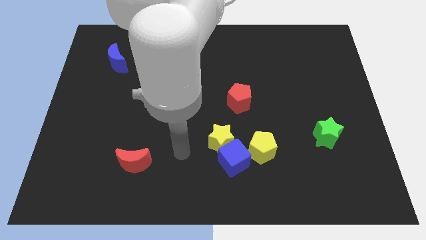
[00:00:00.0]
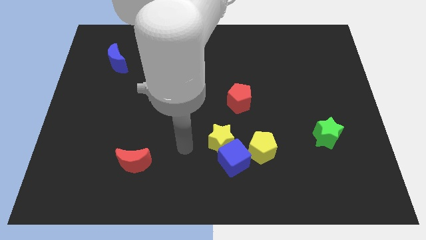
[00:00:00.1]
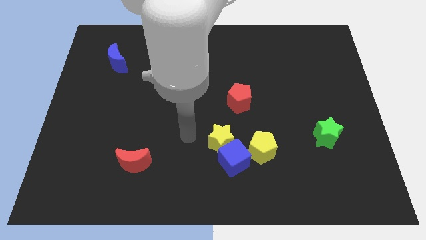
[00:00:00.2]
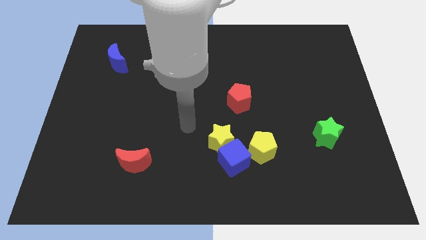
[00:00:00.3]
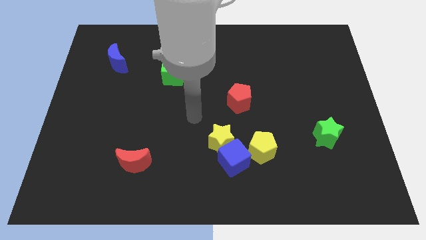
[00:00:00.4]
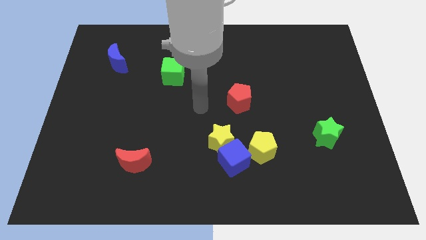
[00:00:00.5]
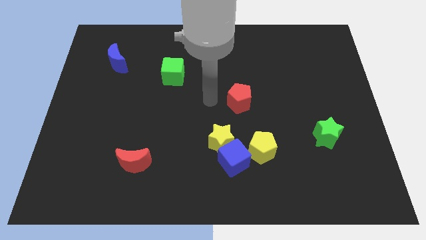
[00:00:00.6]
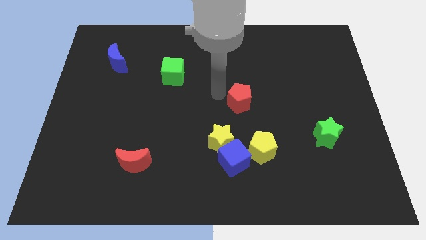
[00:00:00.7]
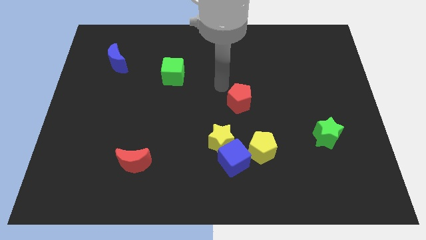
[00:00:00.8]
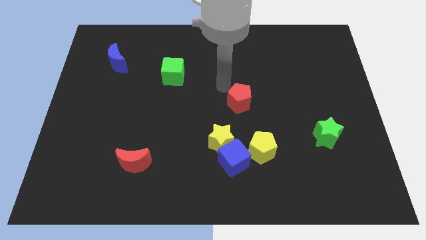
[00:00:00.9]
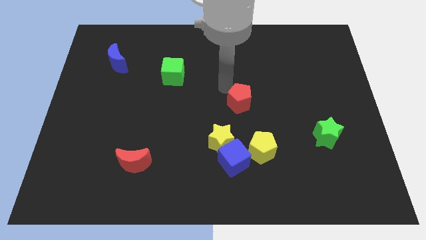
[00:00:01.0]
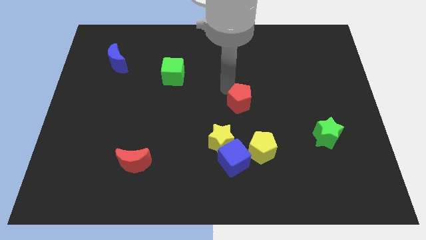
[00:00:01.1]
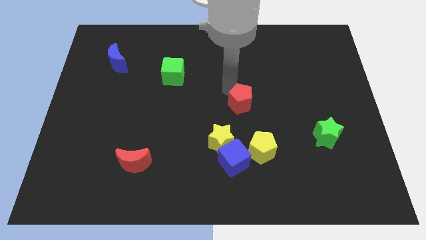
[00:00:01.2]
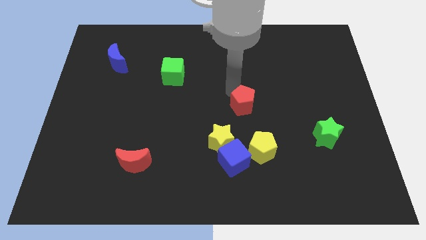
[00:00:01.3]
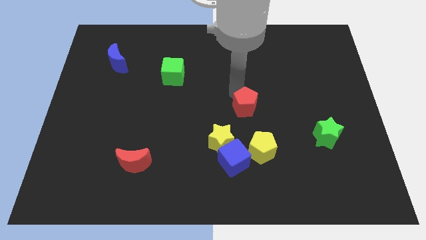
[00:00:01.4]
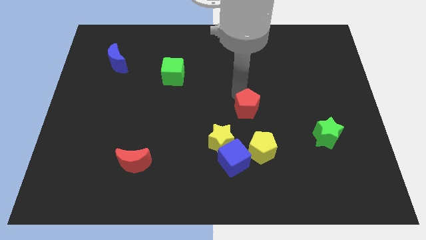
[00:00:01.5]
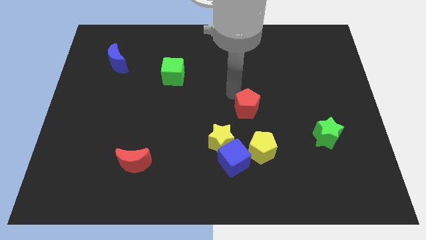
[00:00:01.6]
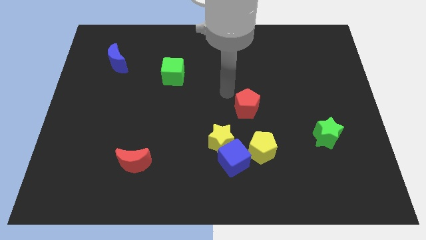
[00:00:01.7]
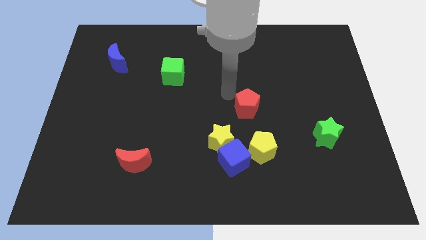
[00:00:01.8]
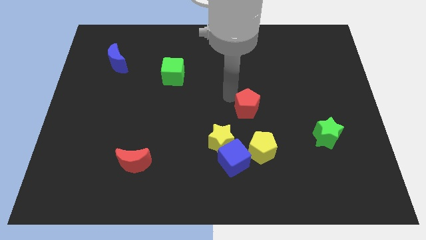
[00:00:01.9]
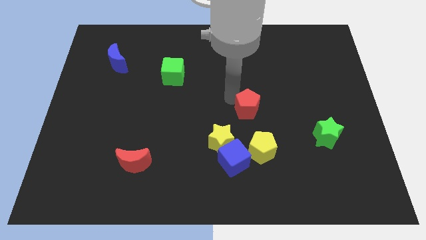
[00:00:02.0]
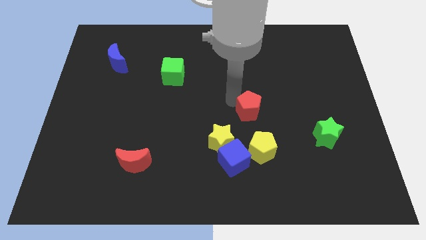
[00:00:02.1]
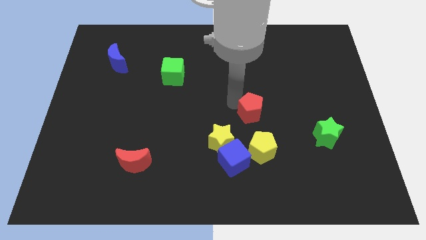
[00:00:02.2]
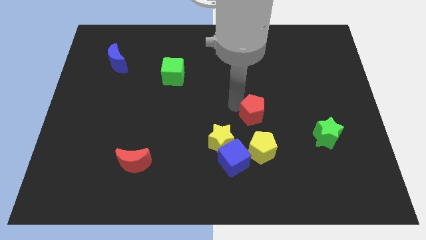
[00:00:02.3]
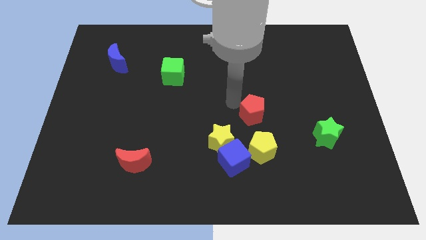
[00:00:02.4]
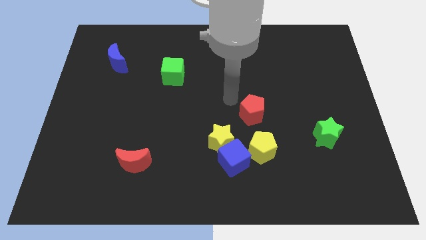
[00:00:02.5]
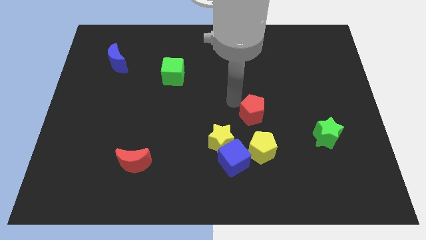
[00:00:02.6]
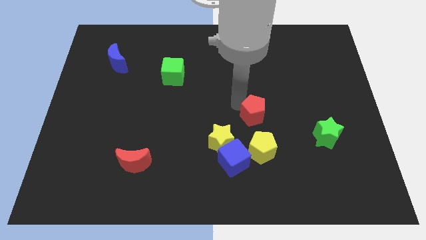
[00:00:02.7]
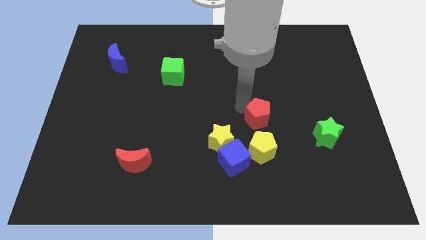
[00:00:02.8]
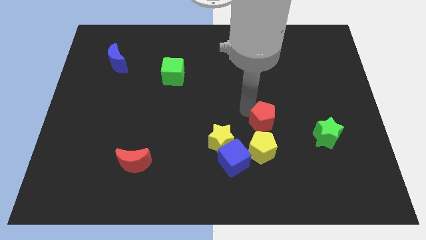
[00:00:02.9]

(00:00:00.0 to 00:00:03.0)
push the red pentagon a bit downwards and right diagonally

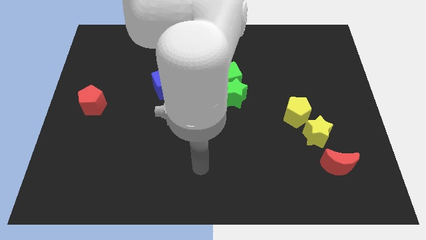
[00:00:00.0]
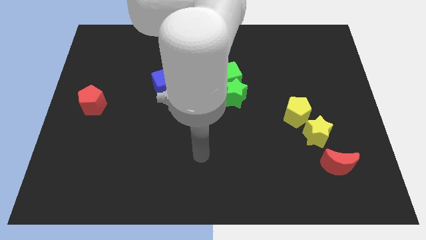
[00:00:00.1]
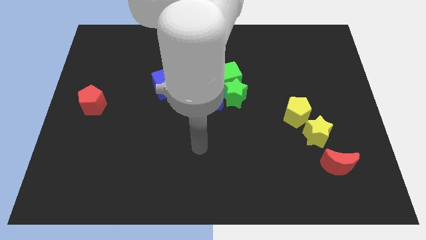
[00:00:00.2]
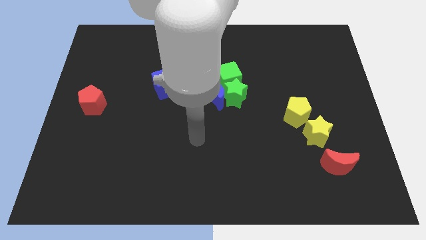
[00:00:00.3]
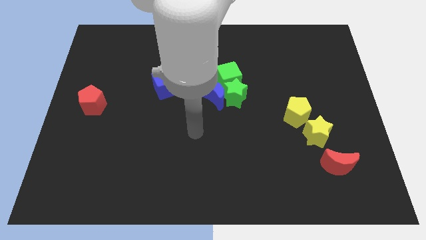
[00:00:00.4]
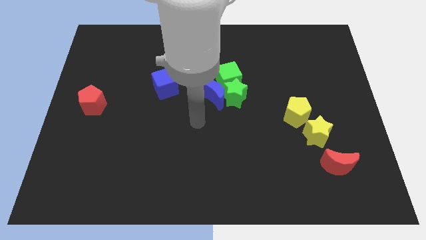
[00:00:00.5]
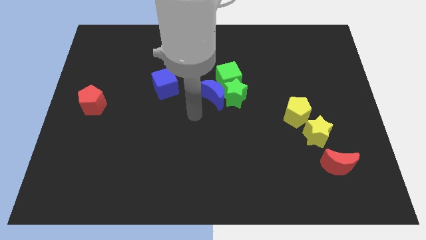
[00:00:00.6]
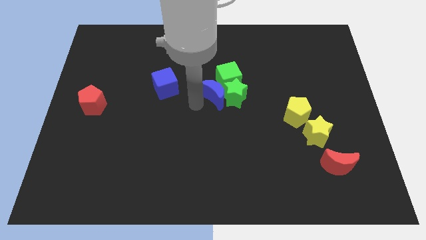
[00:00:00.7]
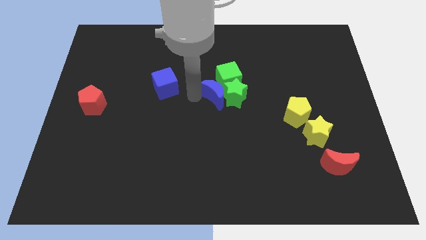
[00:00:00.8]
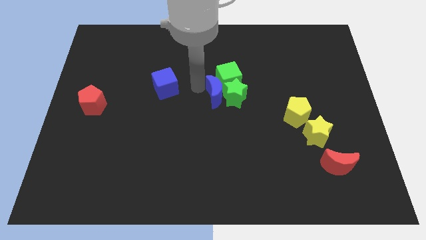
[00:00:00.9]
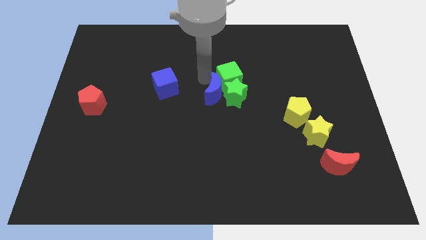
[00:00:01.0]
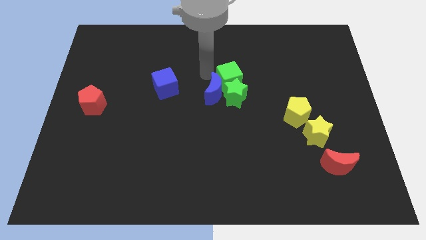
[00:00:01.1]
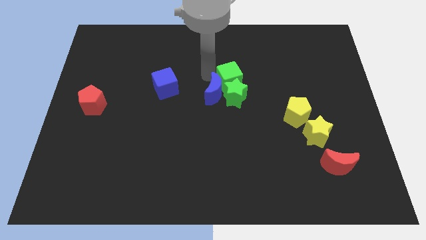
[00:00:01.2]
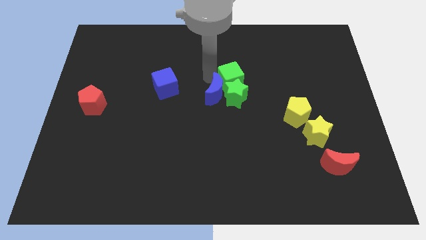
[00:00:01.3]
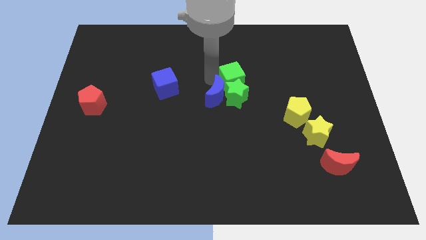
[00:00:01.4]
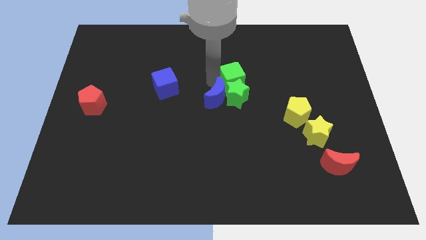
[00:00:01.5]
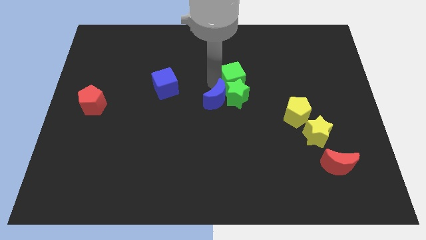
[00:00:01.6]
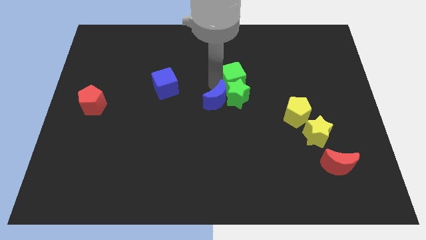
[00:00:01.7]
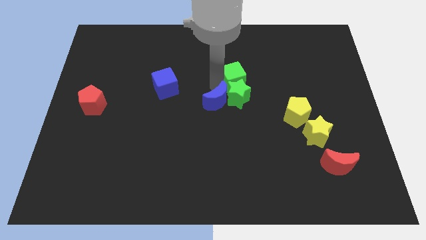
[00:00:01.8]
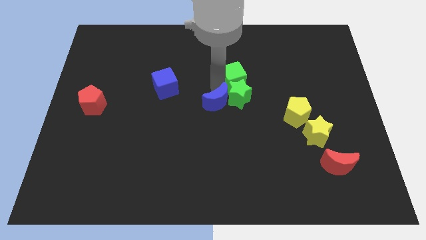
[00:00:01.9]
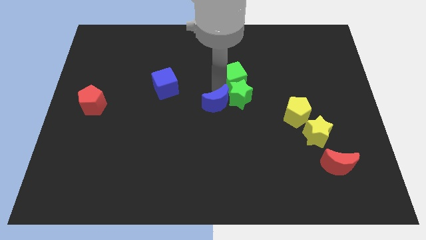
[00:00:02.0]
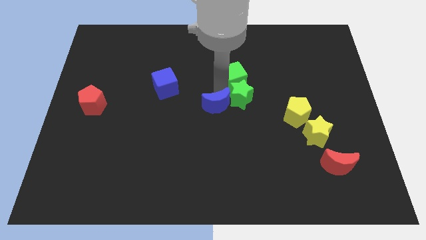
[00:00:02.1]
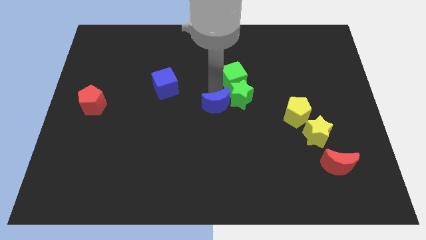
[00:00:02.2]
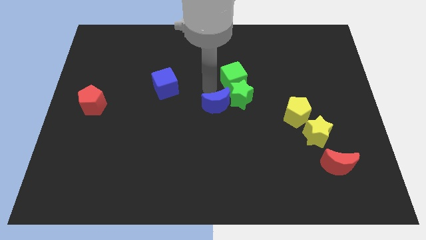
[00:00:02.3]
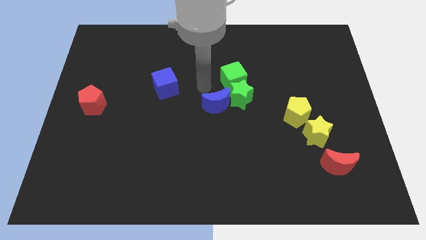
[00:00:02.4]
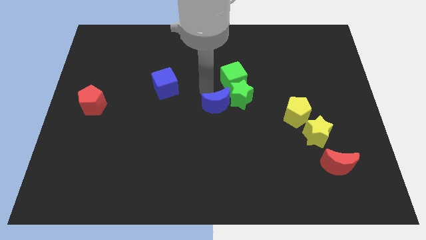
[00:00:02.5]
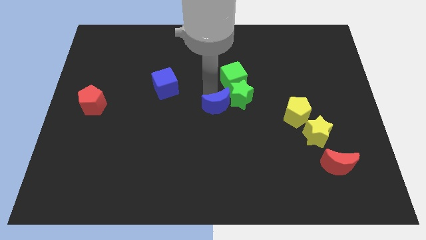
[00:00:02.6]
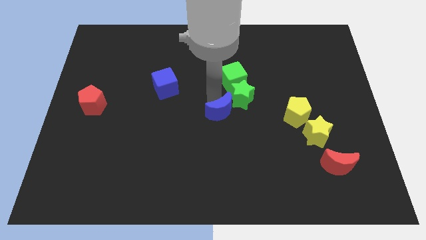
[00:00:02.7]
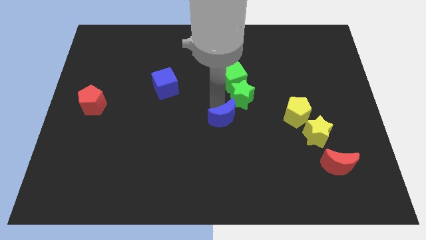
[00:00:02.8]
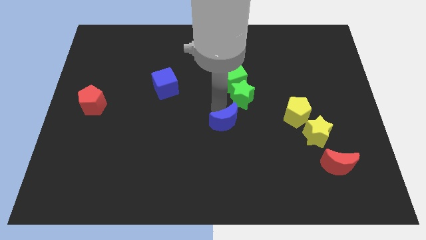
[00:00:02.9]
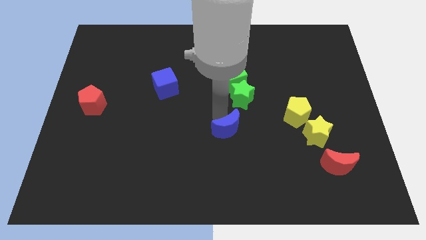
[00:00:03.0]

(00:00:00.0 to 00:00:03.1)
slide the blue moon a little downwards and right diagonally

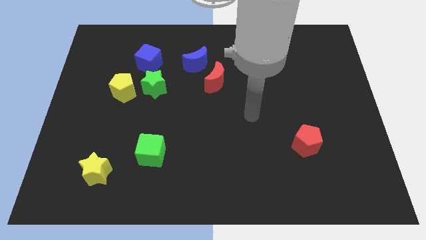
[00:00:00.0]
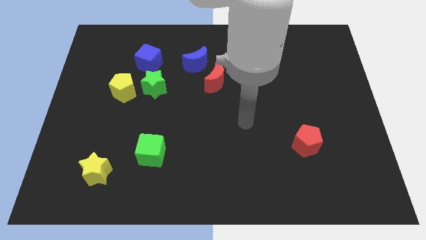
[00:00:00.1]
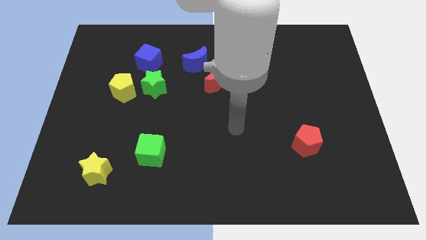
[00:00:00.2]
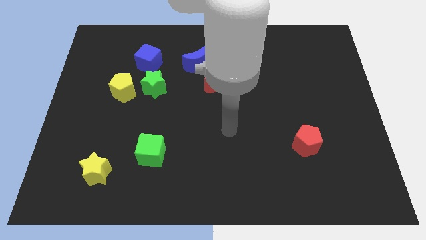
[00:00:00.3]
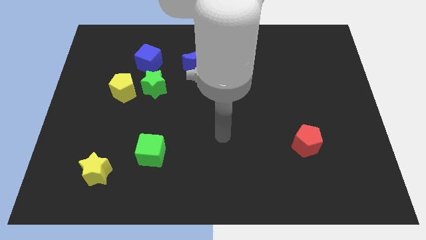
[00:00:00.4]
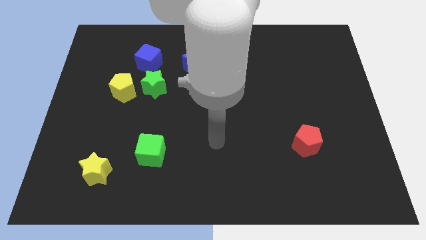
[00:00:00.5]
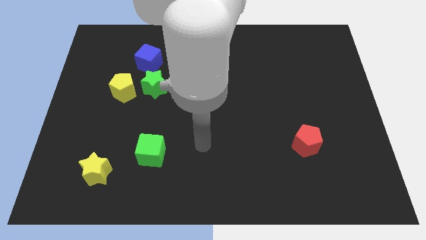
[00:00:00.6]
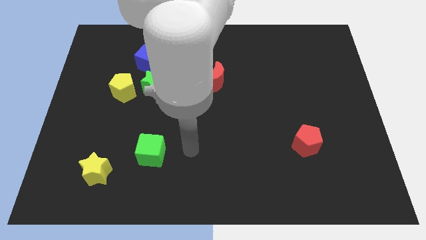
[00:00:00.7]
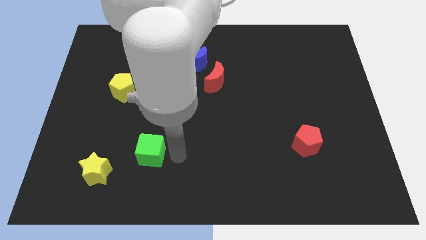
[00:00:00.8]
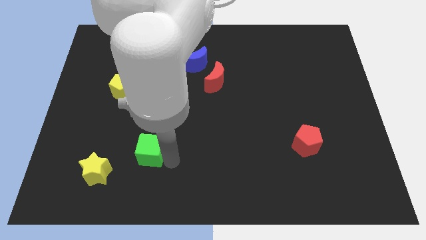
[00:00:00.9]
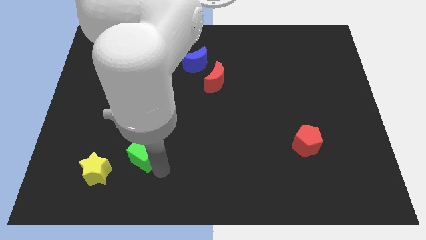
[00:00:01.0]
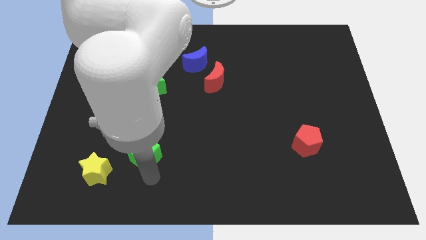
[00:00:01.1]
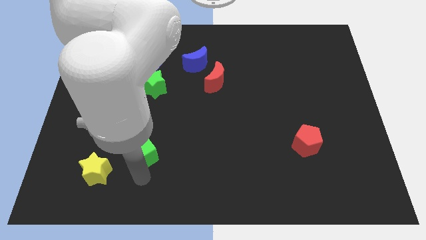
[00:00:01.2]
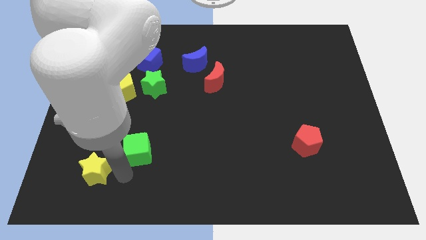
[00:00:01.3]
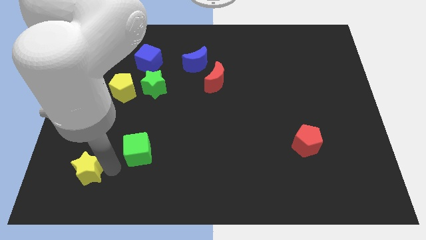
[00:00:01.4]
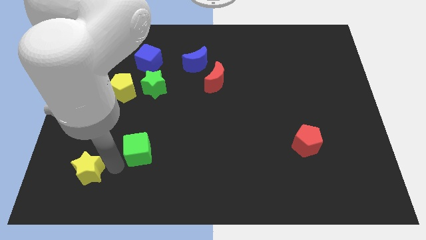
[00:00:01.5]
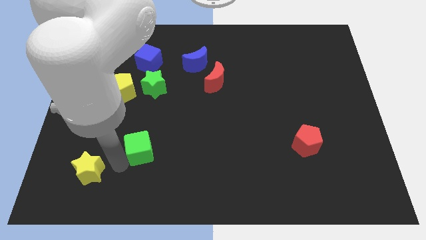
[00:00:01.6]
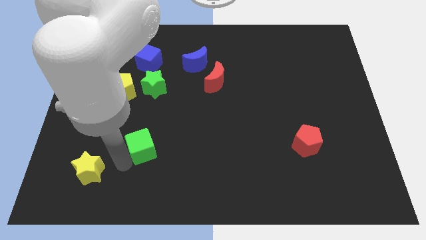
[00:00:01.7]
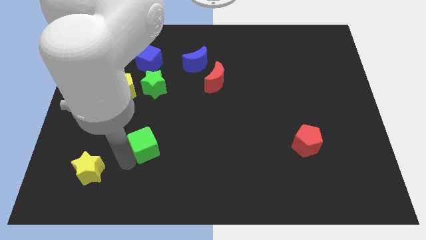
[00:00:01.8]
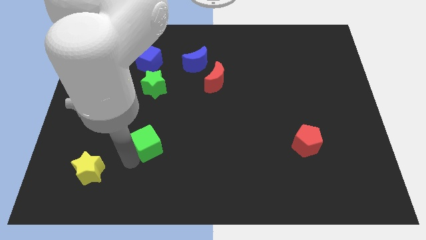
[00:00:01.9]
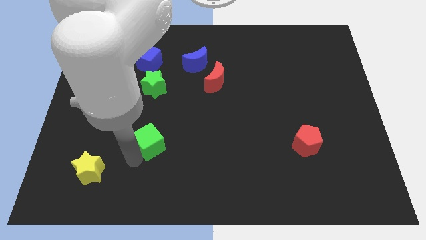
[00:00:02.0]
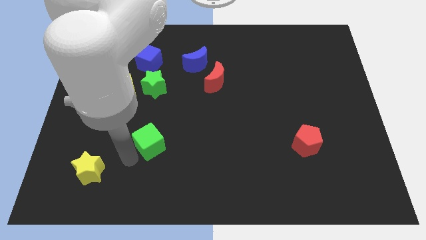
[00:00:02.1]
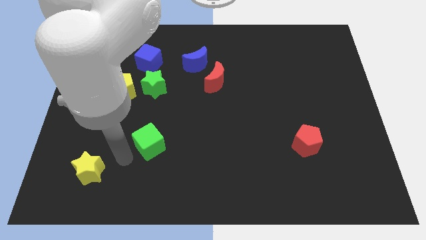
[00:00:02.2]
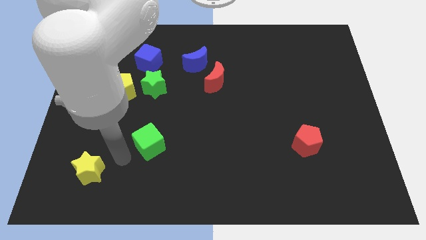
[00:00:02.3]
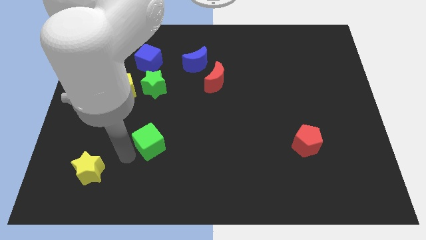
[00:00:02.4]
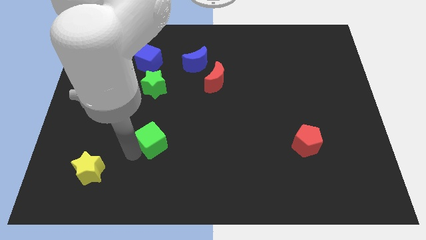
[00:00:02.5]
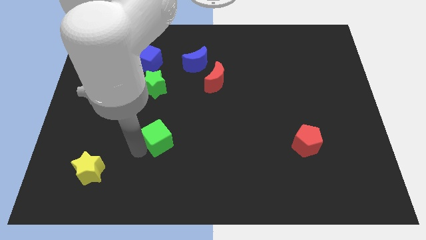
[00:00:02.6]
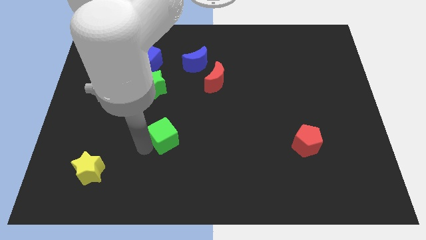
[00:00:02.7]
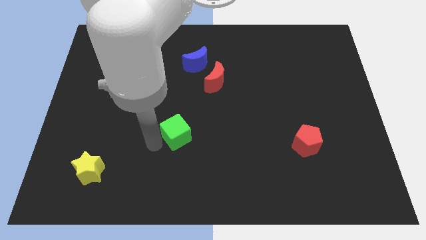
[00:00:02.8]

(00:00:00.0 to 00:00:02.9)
push the green cube slightly diagonally upwards and right
